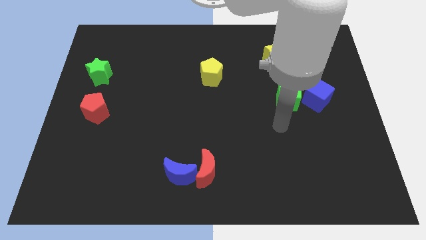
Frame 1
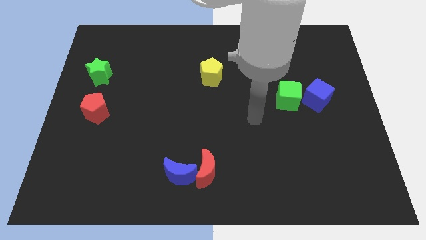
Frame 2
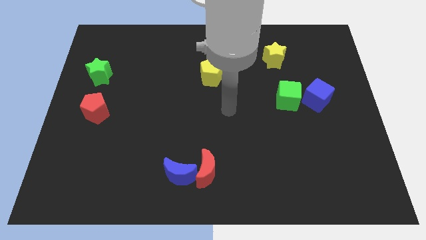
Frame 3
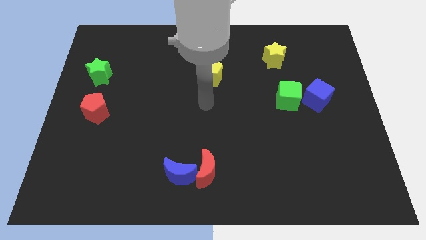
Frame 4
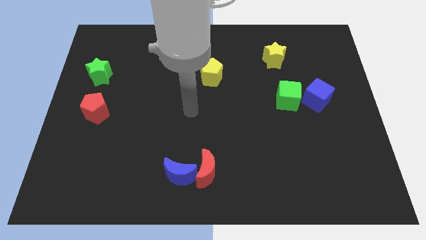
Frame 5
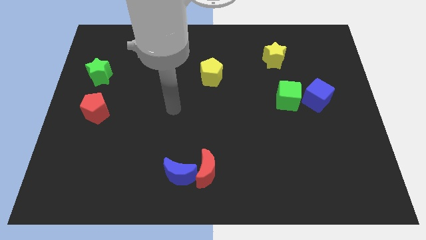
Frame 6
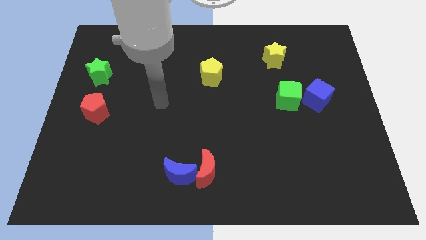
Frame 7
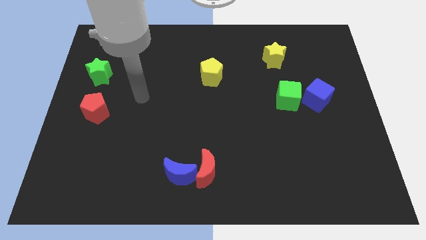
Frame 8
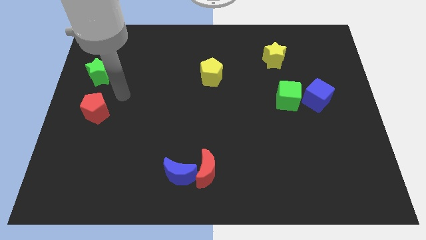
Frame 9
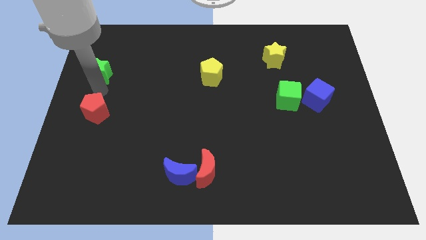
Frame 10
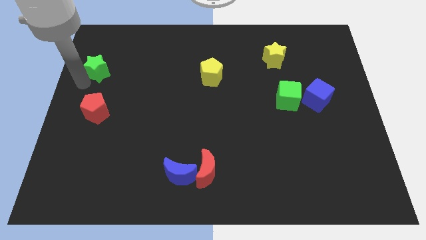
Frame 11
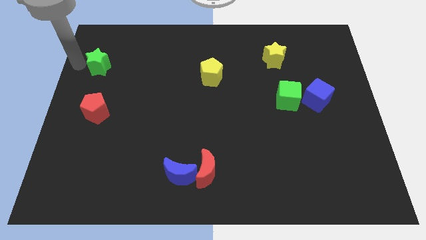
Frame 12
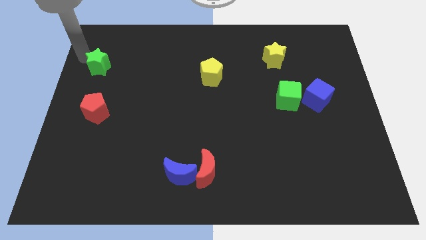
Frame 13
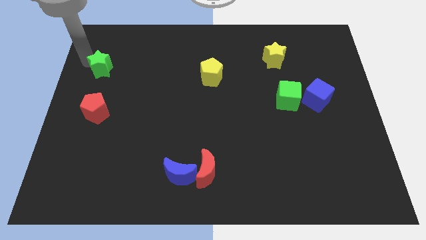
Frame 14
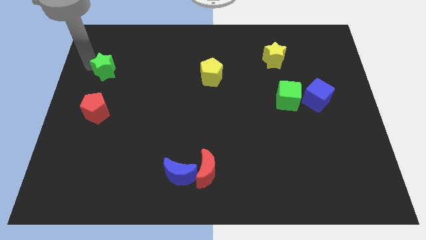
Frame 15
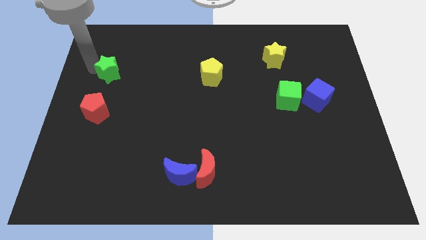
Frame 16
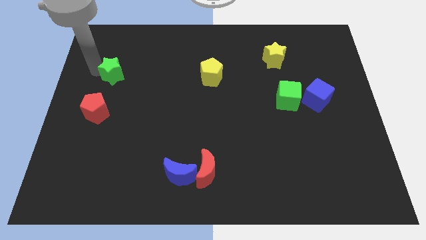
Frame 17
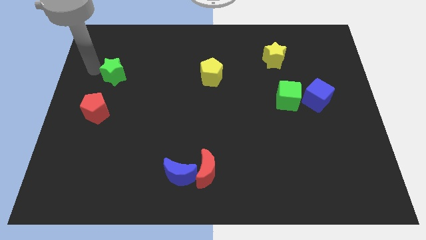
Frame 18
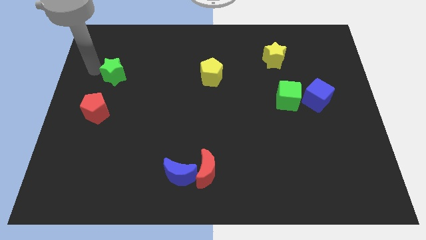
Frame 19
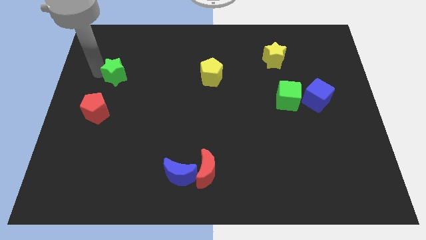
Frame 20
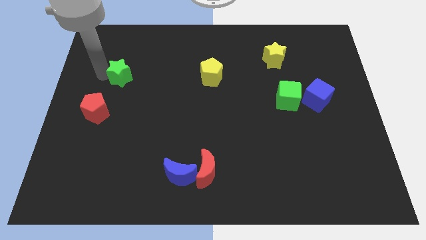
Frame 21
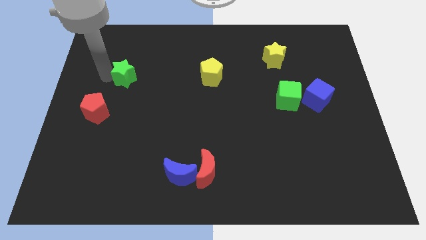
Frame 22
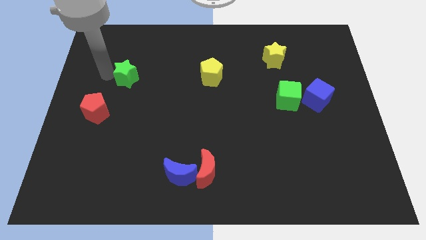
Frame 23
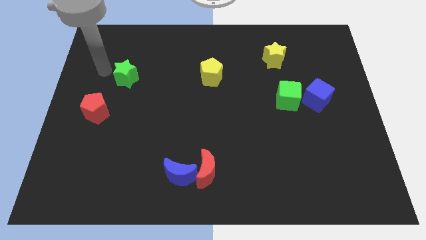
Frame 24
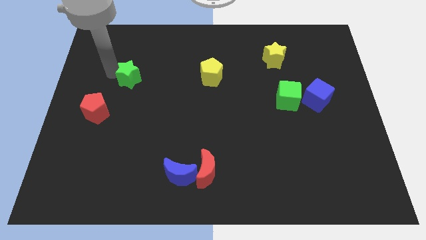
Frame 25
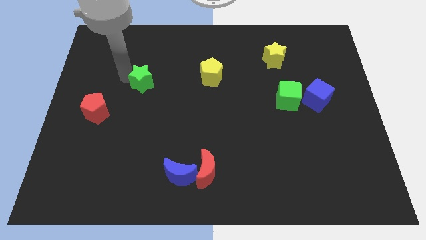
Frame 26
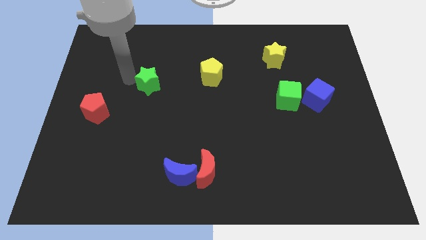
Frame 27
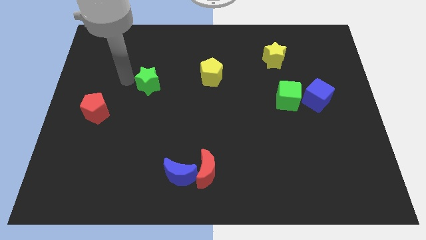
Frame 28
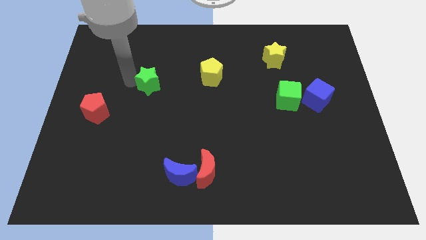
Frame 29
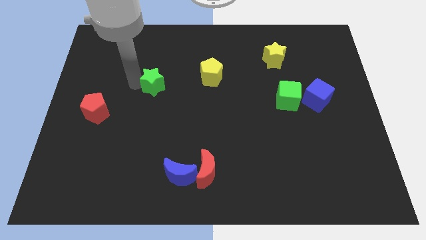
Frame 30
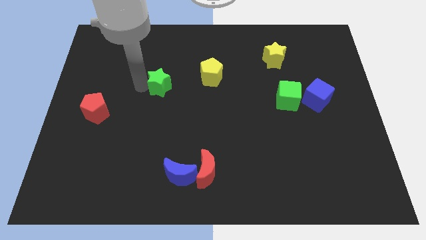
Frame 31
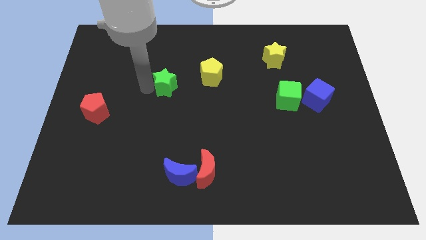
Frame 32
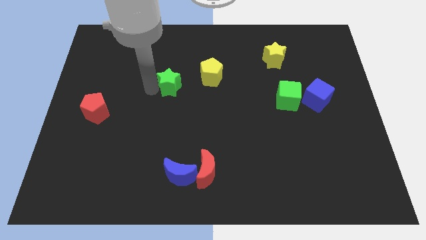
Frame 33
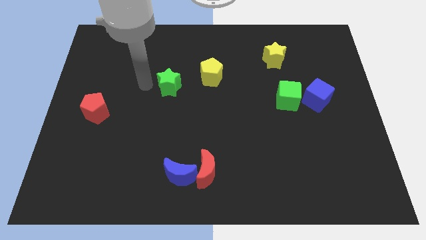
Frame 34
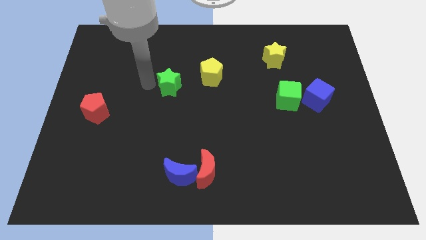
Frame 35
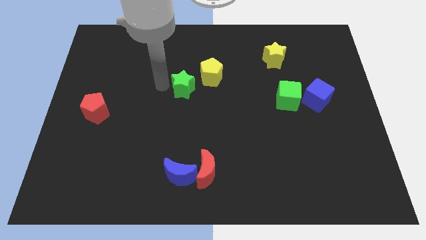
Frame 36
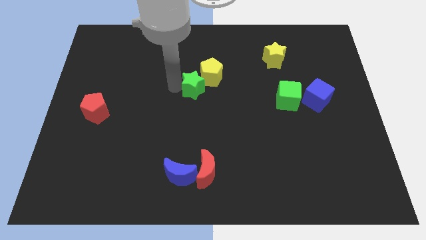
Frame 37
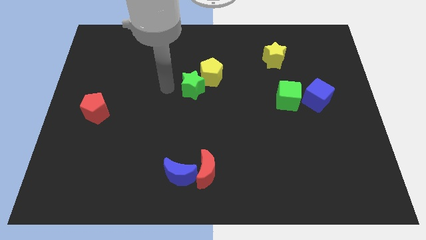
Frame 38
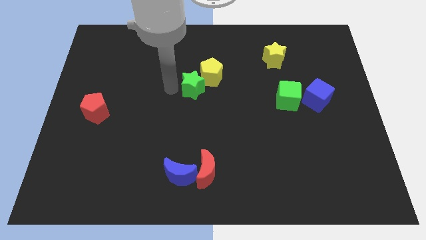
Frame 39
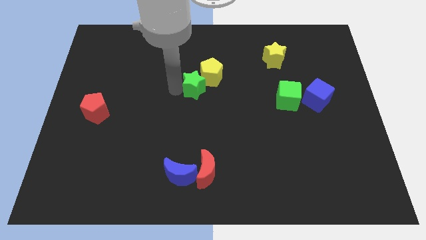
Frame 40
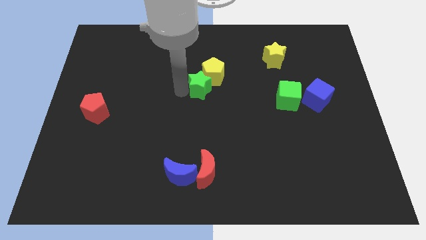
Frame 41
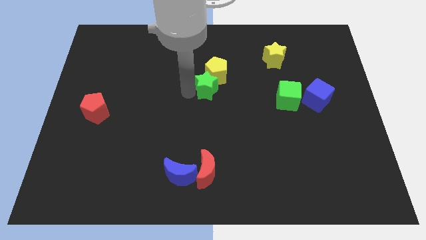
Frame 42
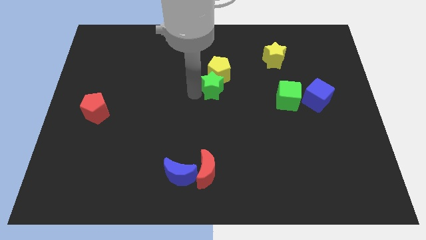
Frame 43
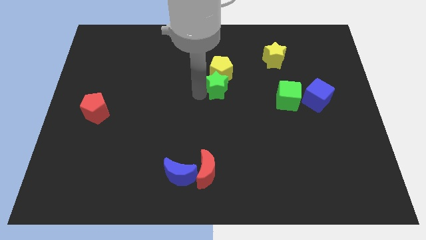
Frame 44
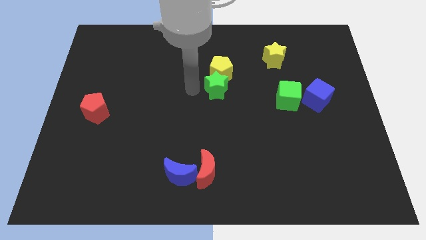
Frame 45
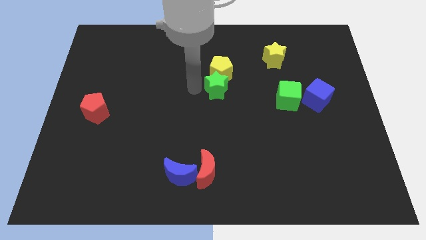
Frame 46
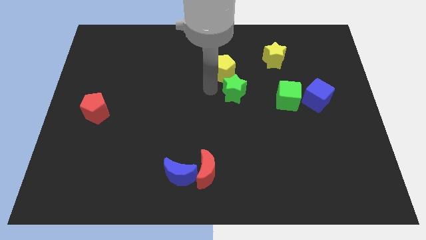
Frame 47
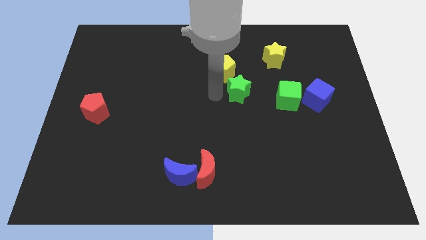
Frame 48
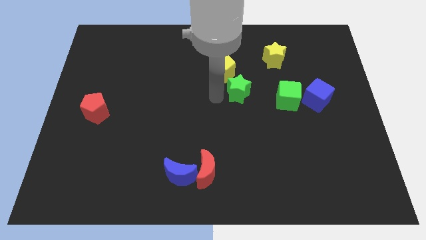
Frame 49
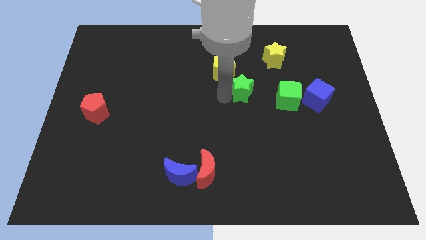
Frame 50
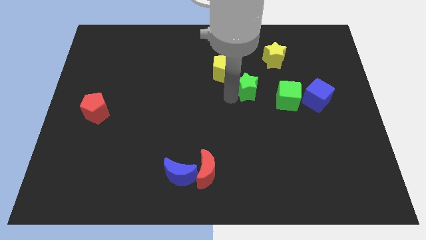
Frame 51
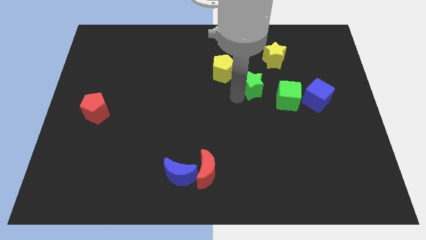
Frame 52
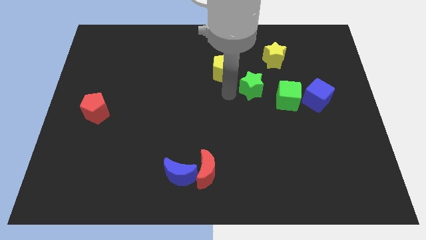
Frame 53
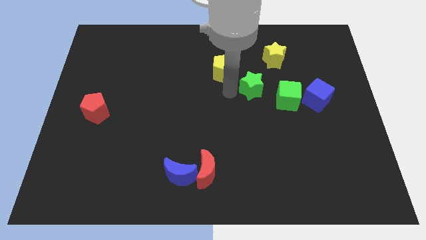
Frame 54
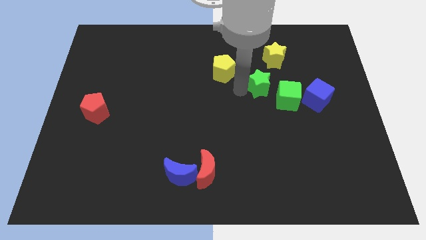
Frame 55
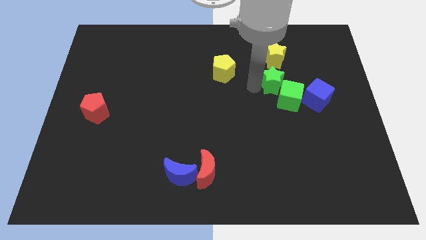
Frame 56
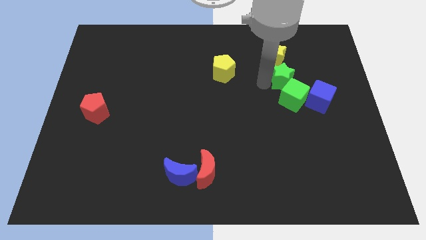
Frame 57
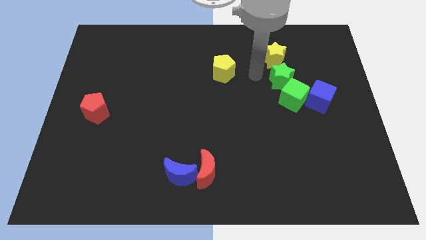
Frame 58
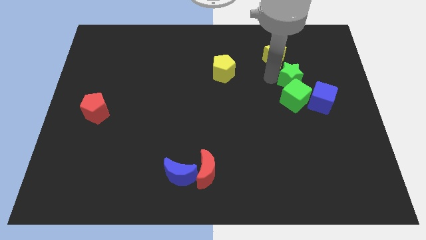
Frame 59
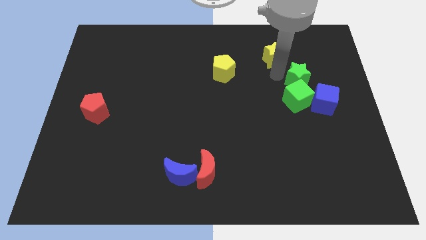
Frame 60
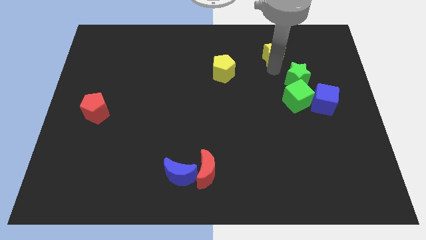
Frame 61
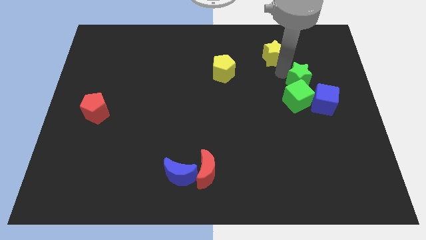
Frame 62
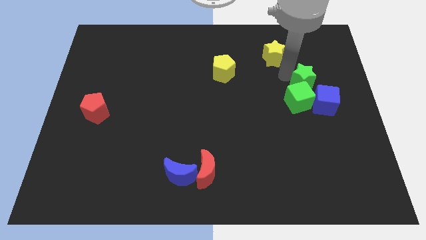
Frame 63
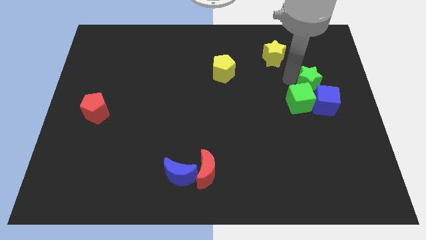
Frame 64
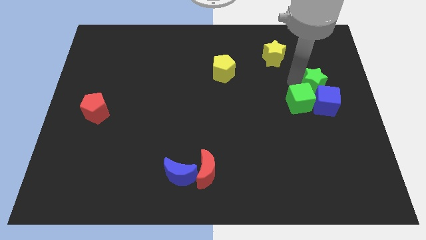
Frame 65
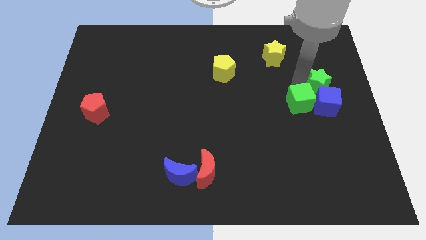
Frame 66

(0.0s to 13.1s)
move the green star to the right side of the board
